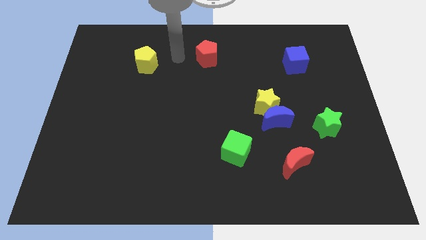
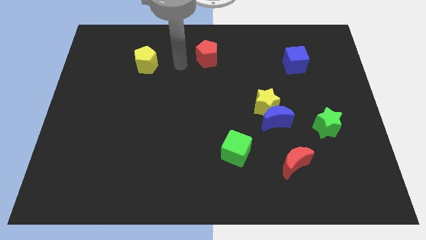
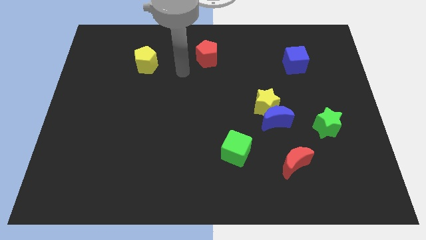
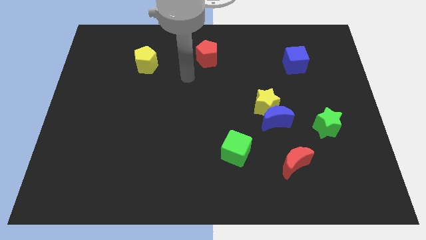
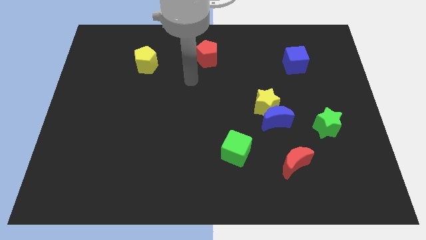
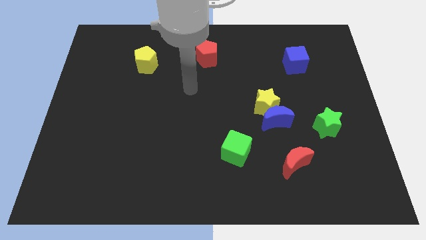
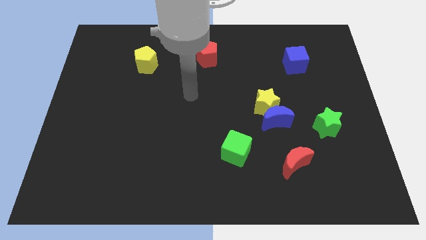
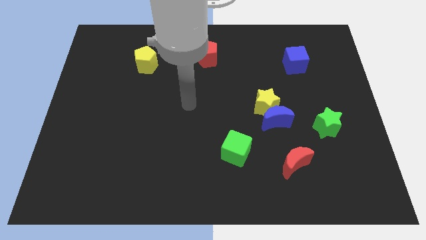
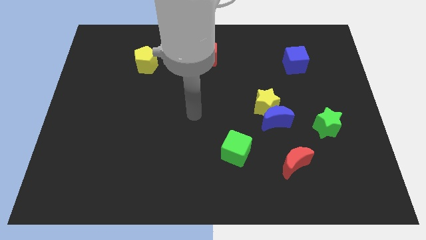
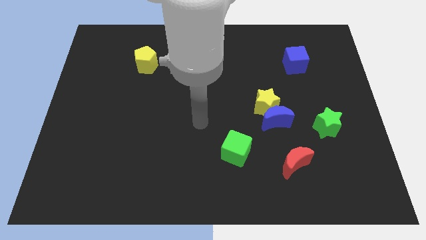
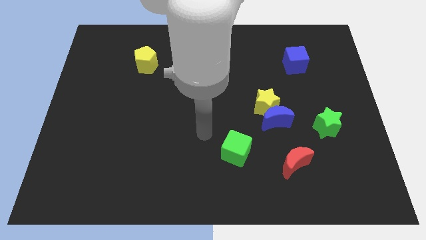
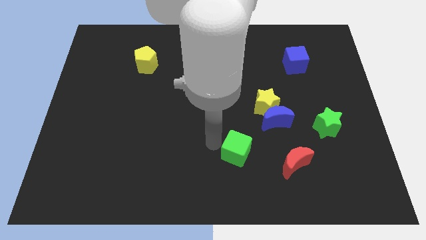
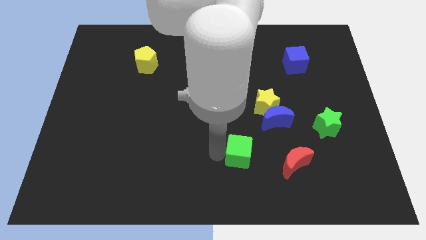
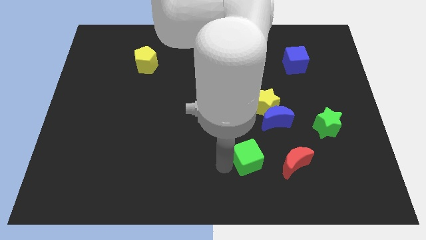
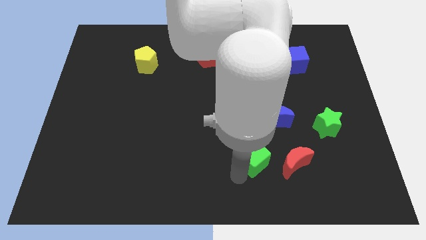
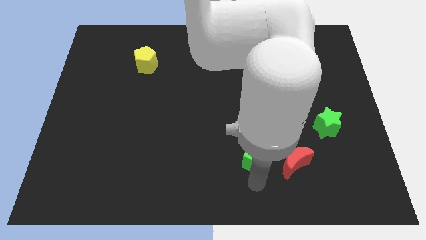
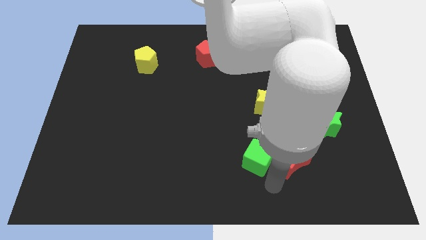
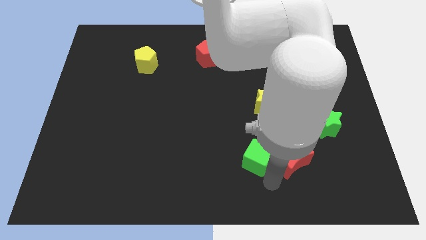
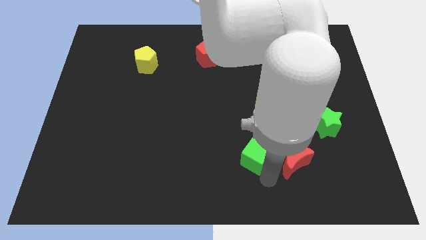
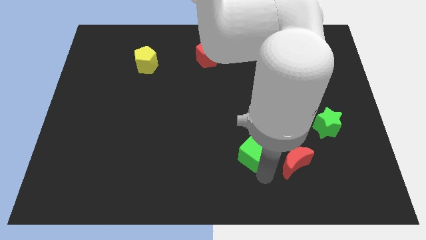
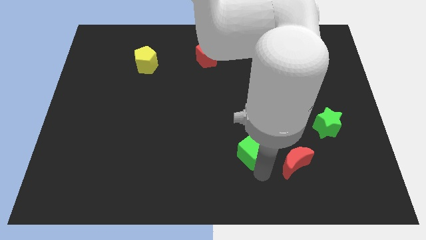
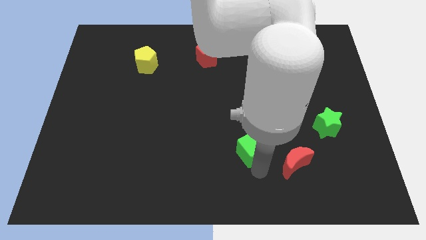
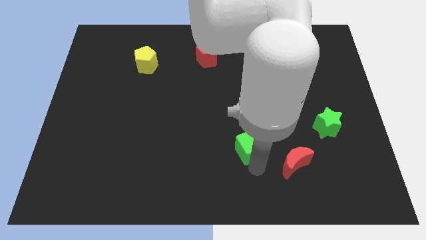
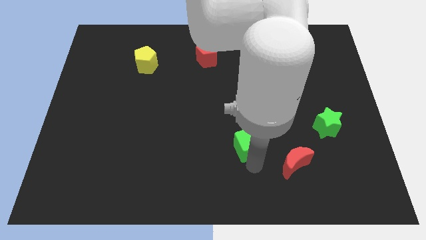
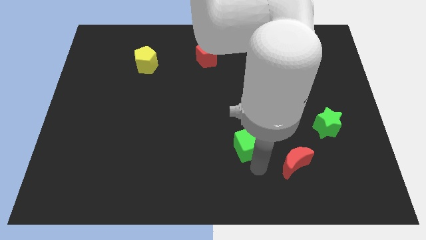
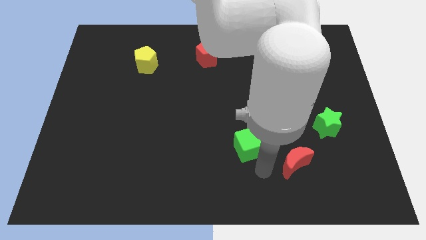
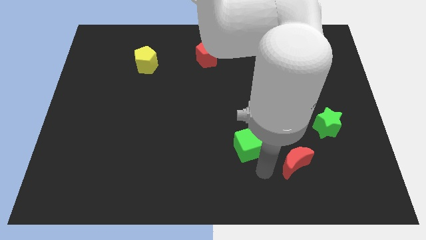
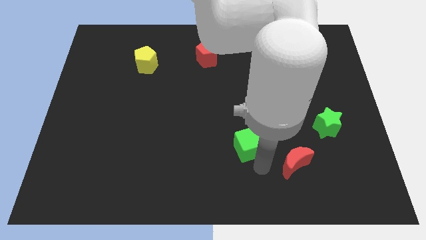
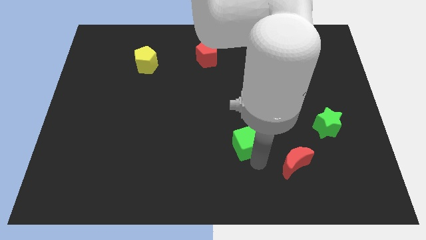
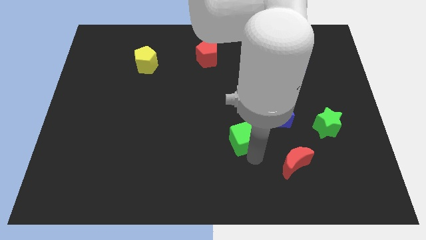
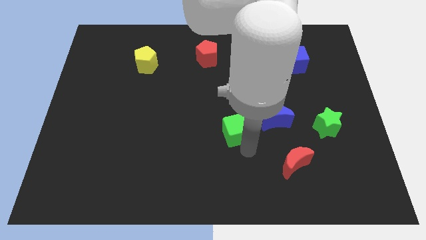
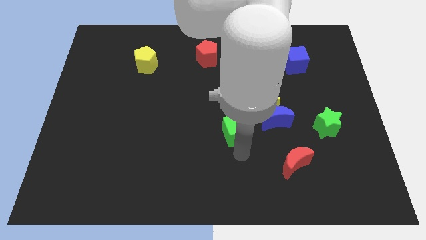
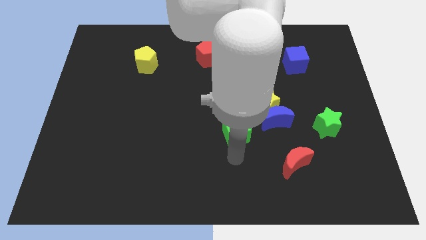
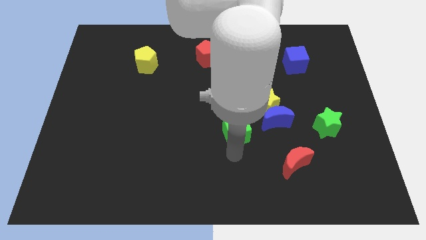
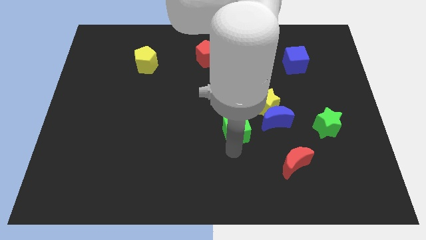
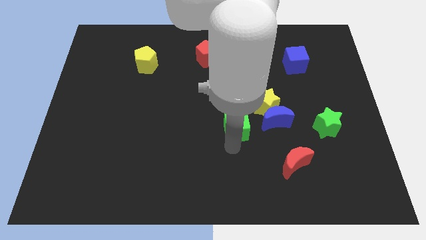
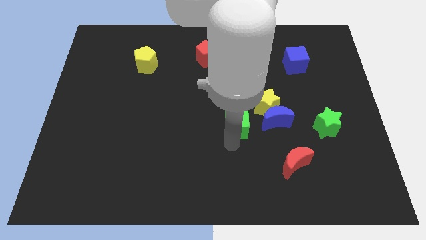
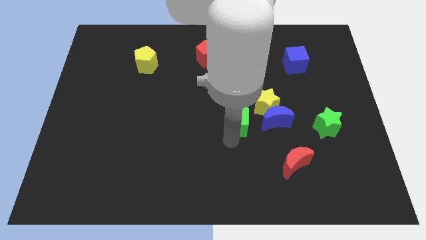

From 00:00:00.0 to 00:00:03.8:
push the green cube up a bit

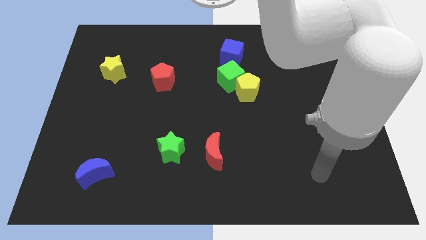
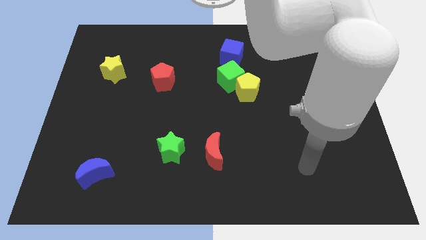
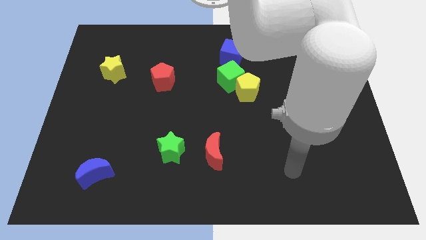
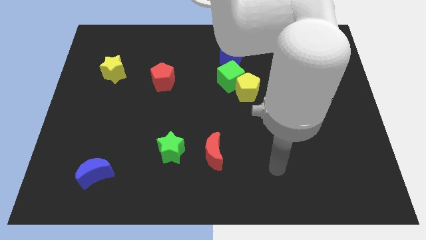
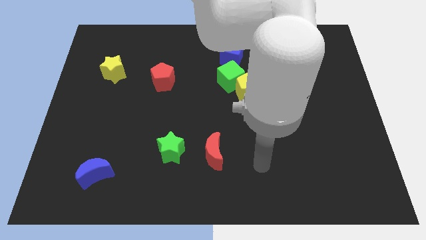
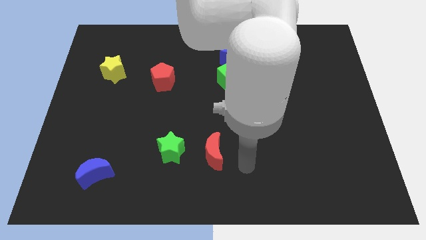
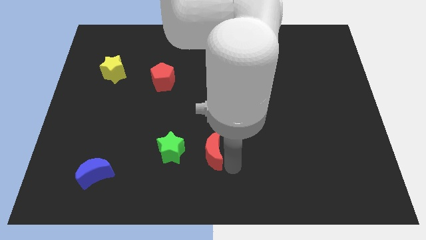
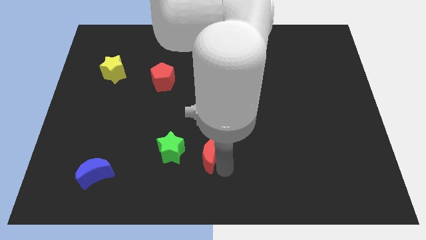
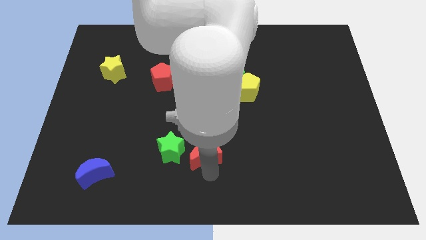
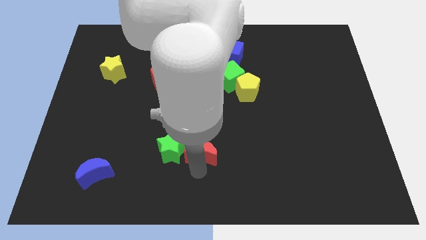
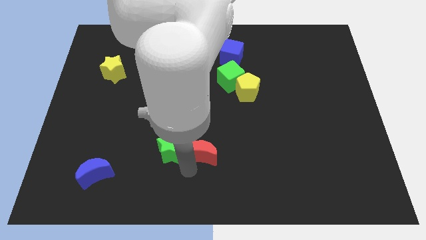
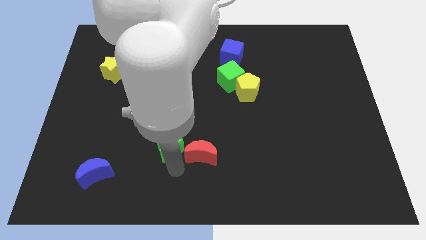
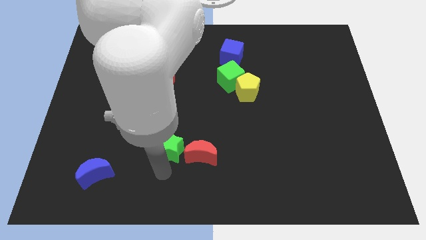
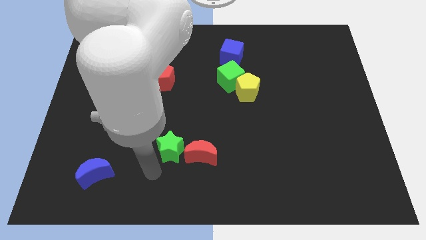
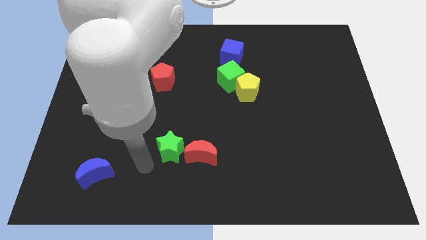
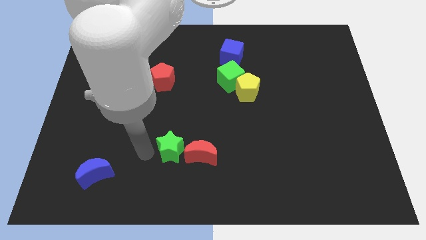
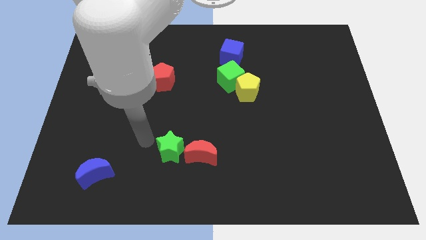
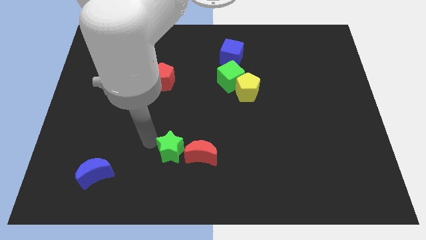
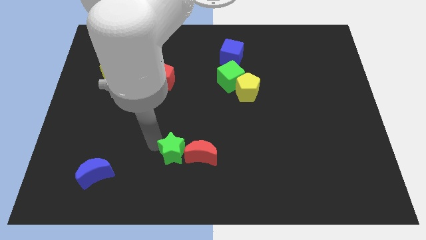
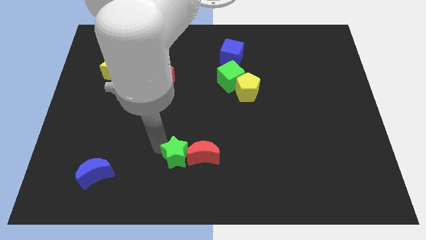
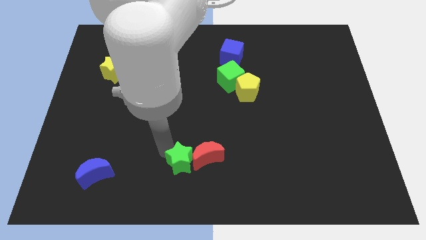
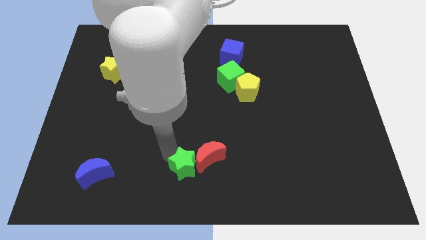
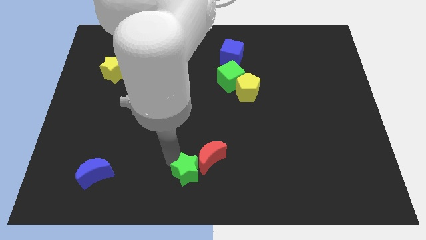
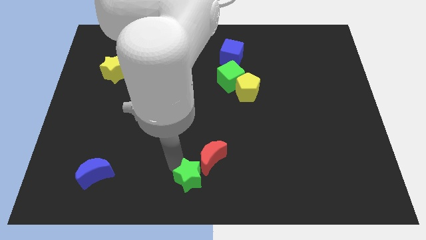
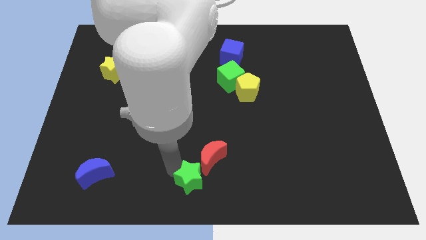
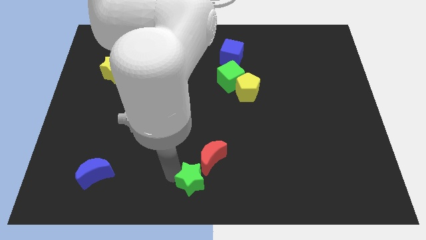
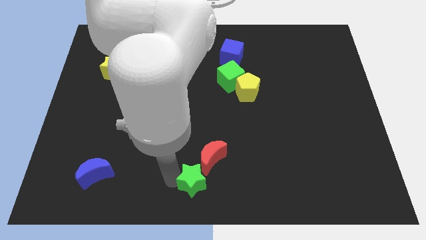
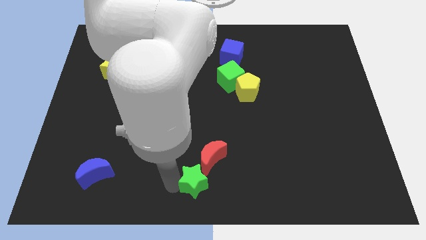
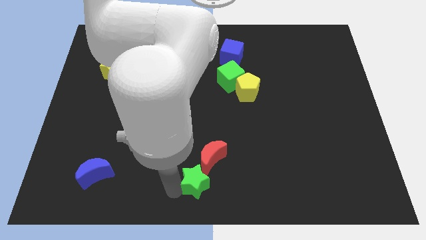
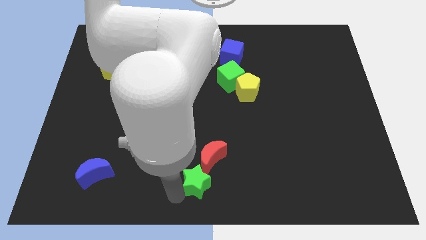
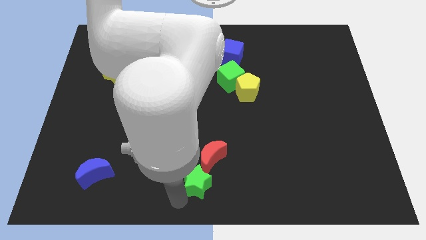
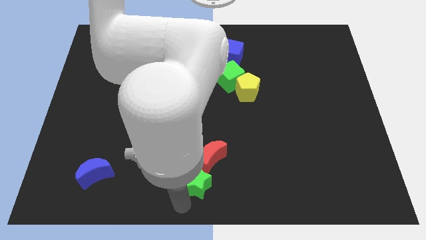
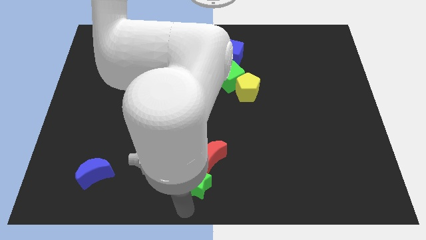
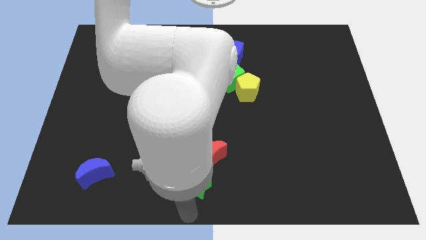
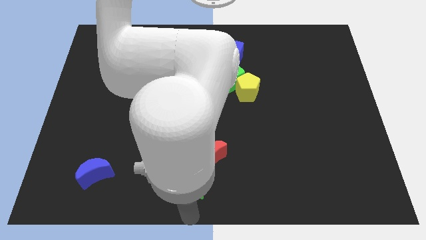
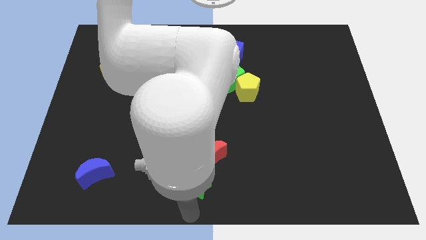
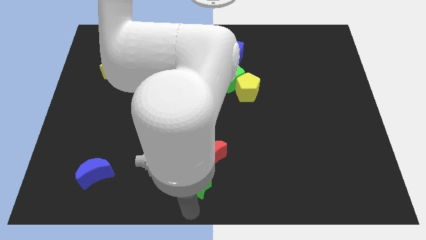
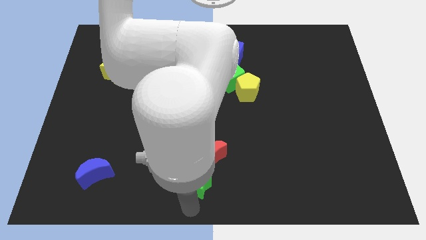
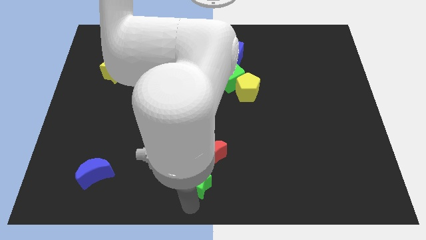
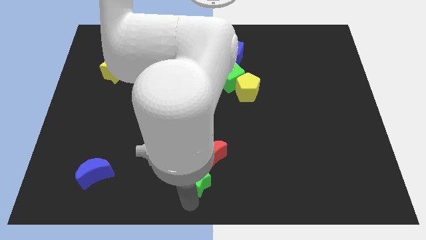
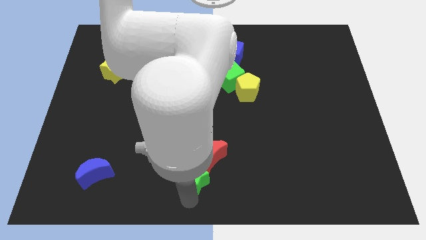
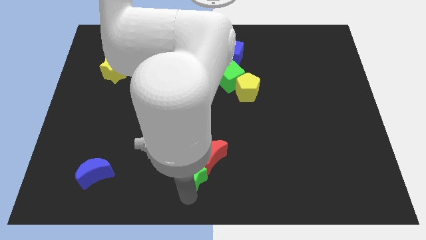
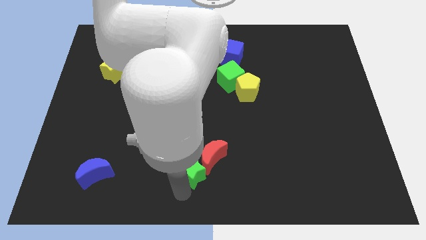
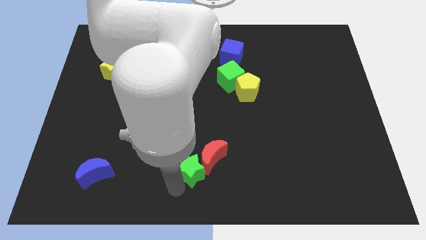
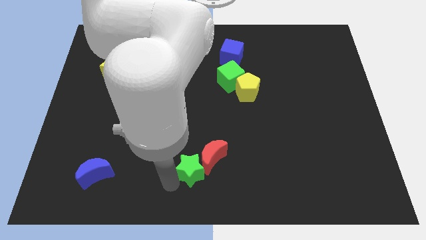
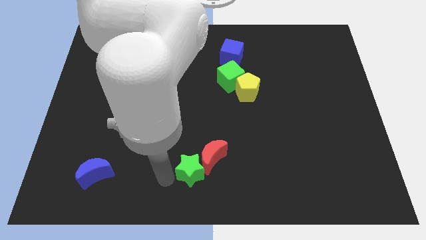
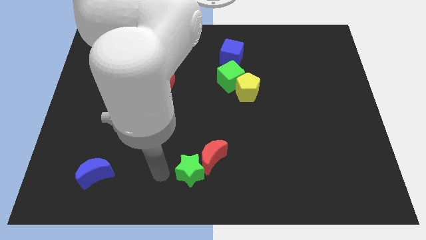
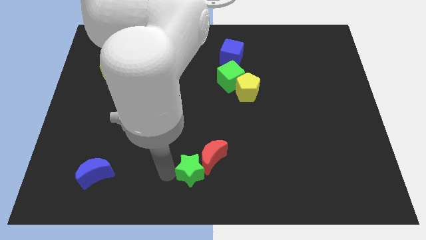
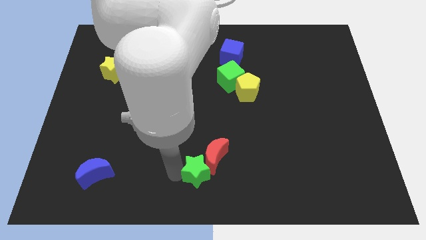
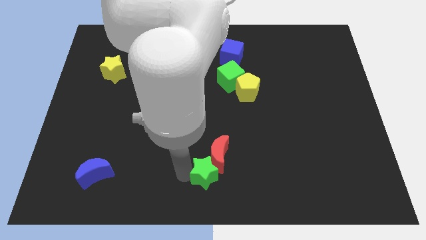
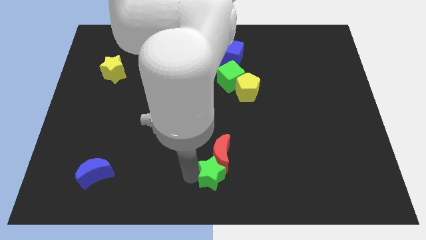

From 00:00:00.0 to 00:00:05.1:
move the green star a little bit to the right
